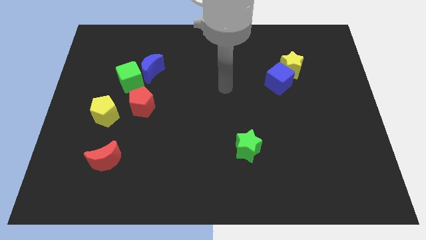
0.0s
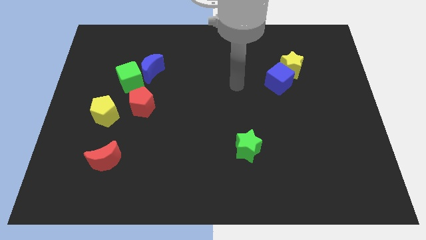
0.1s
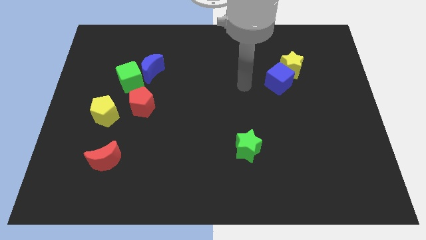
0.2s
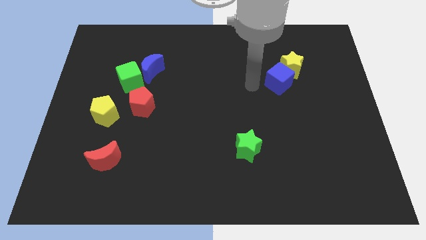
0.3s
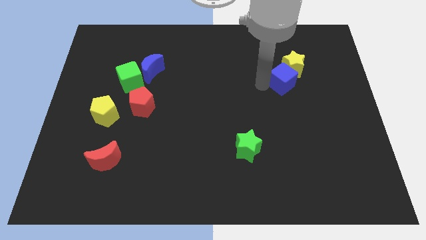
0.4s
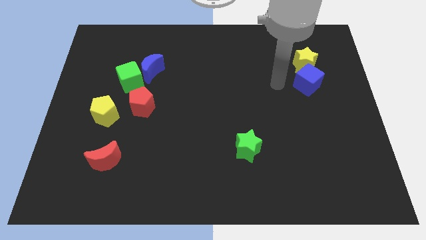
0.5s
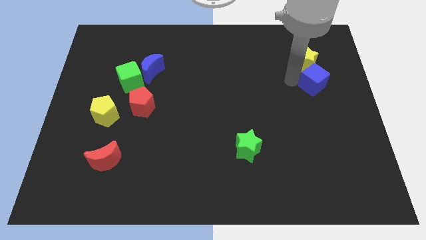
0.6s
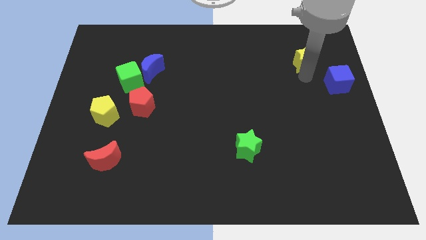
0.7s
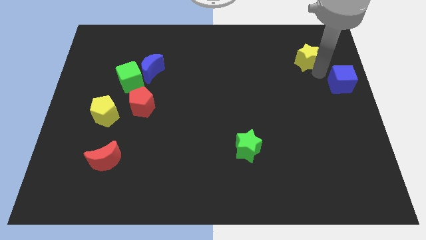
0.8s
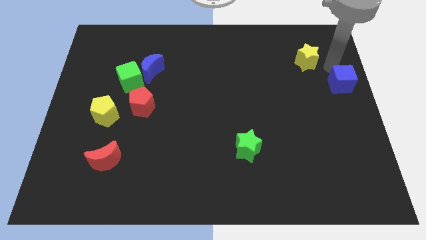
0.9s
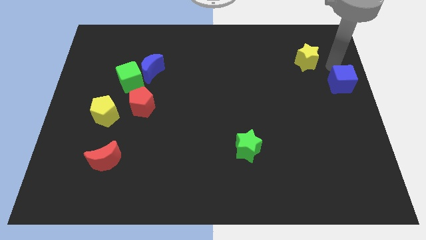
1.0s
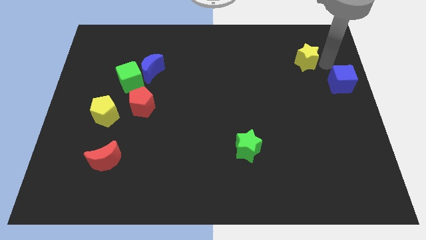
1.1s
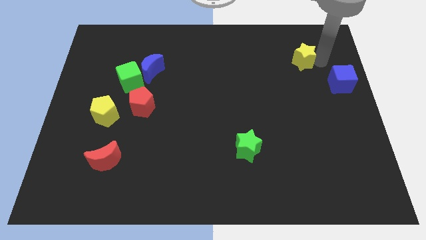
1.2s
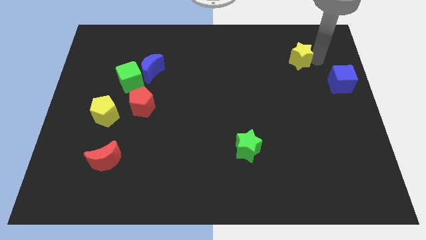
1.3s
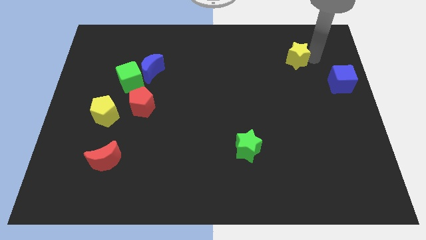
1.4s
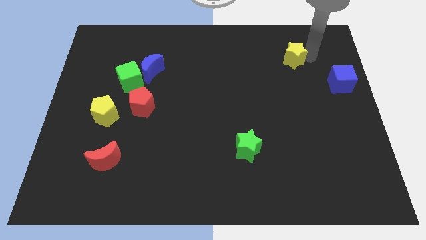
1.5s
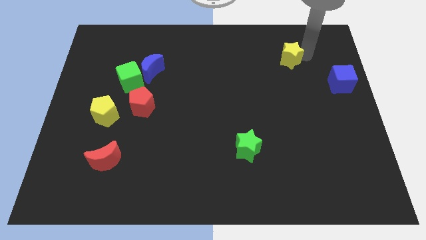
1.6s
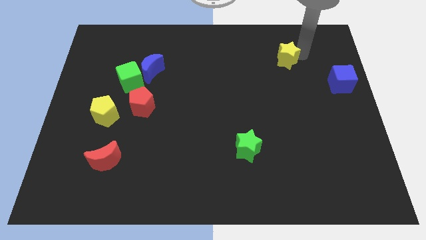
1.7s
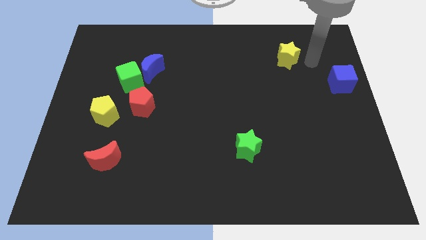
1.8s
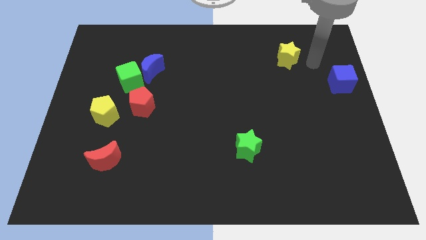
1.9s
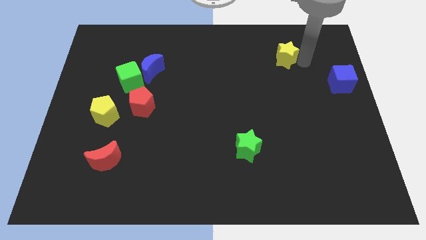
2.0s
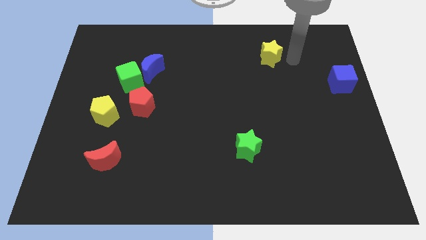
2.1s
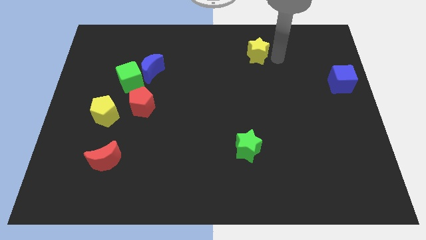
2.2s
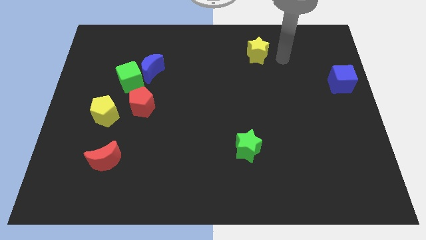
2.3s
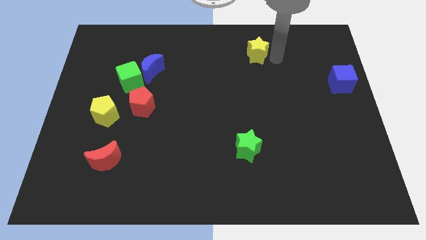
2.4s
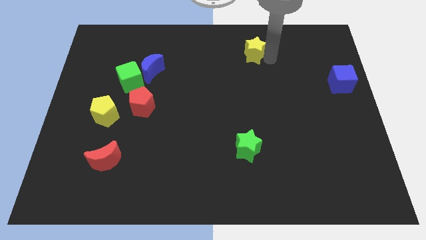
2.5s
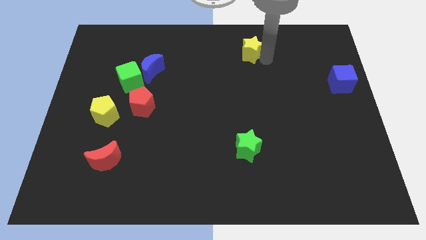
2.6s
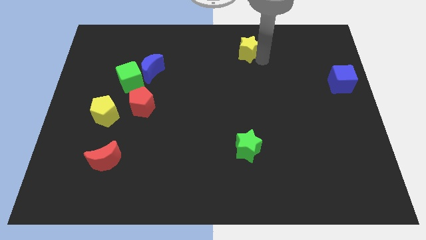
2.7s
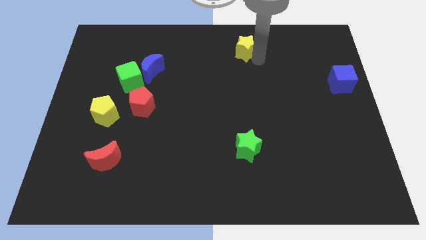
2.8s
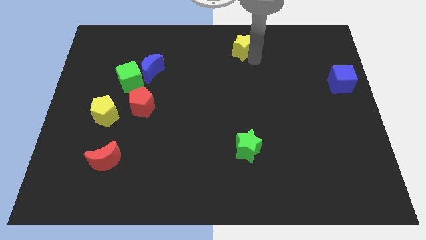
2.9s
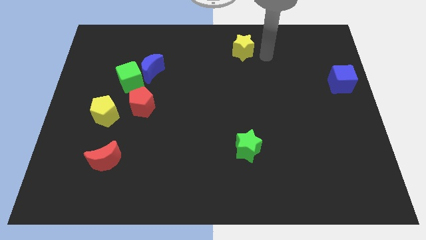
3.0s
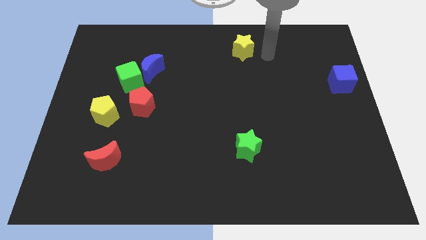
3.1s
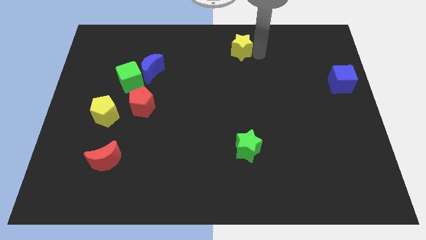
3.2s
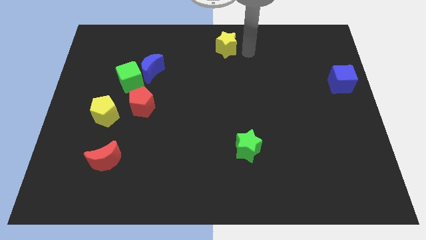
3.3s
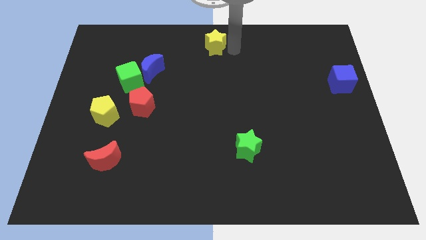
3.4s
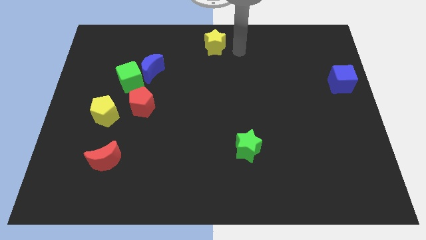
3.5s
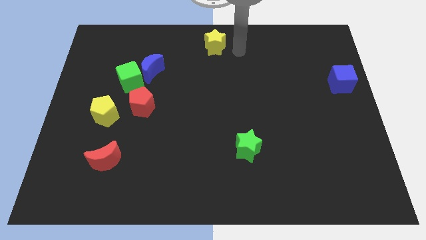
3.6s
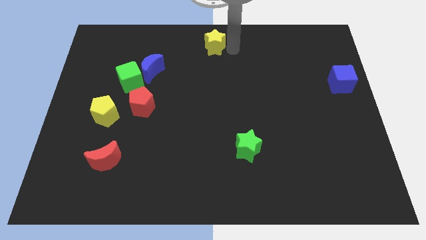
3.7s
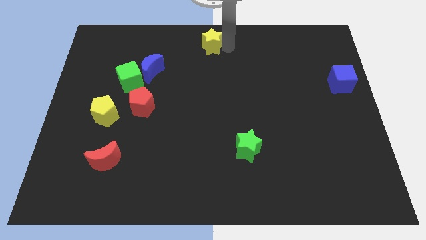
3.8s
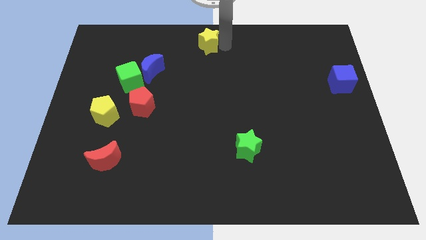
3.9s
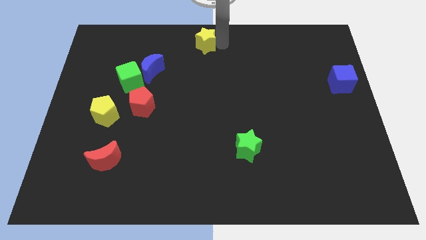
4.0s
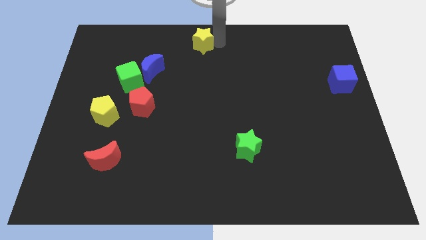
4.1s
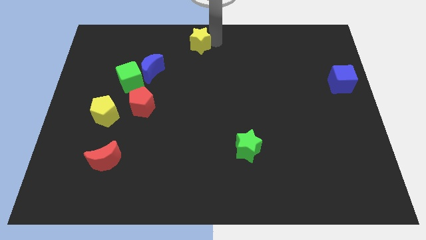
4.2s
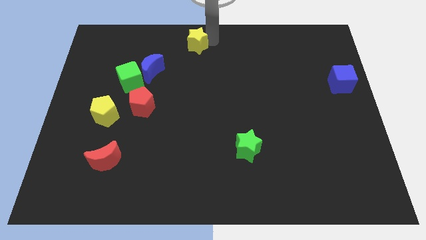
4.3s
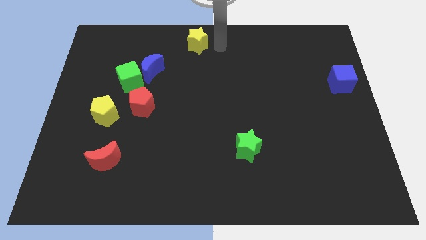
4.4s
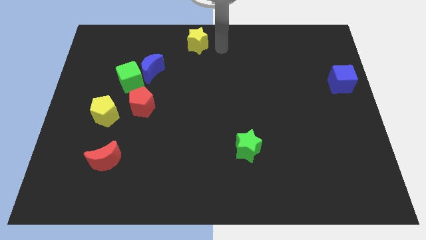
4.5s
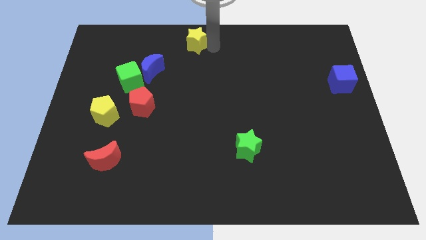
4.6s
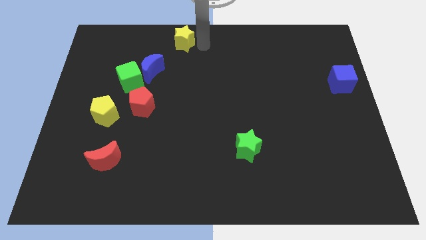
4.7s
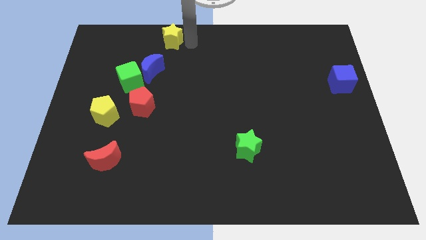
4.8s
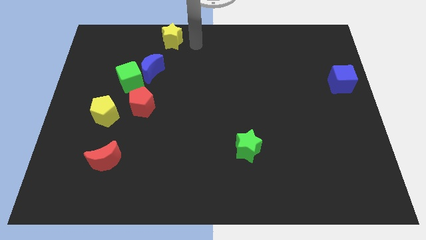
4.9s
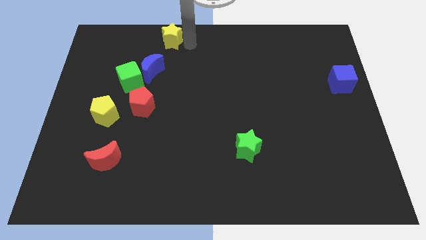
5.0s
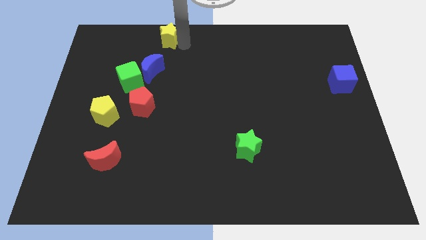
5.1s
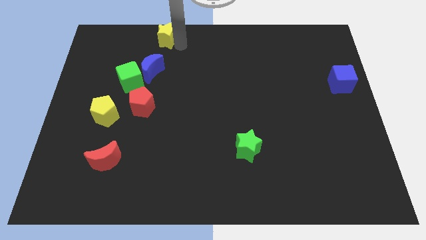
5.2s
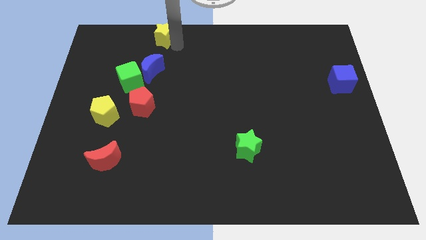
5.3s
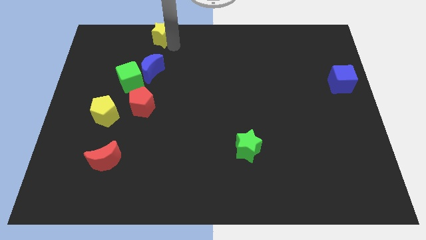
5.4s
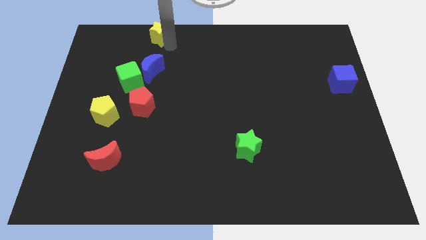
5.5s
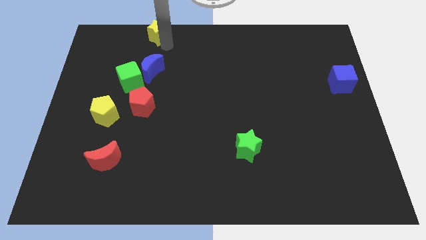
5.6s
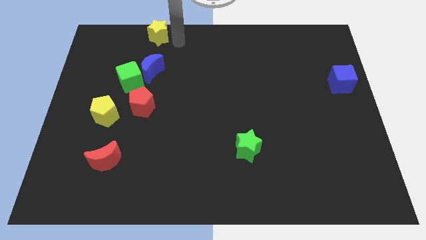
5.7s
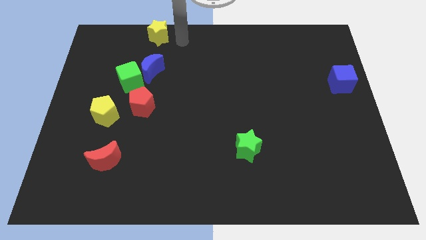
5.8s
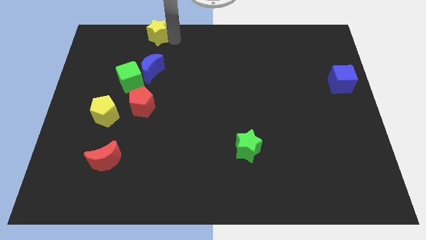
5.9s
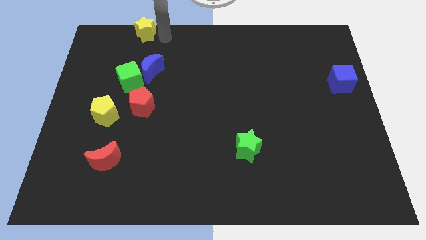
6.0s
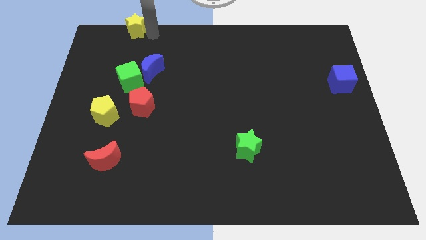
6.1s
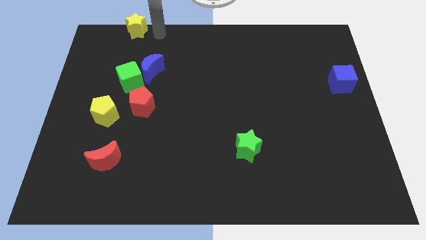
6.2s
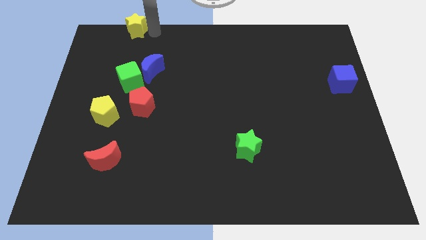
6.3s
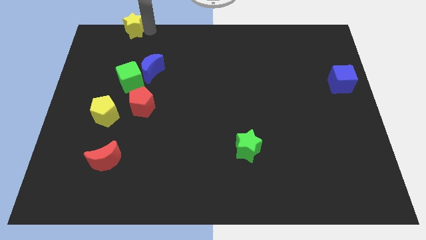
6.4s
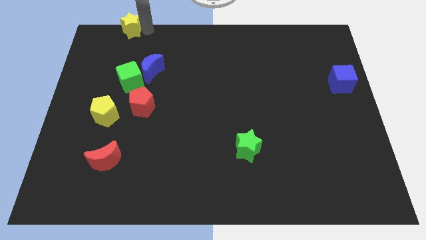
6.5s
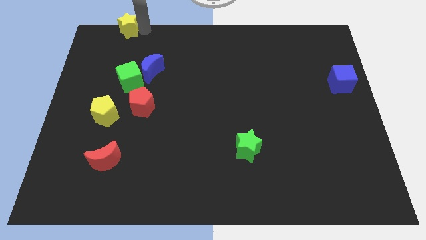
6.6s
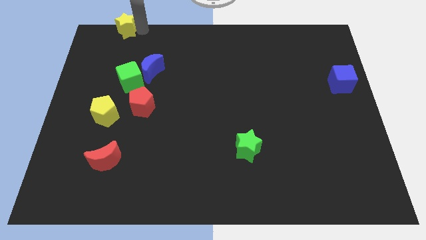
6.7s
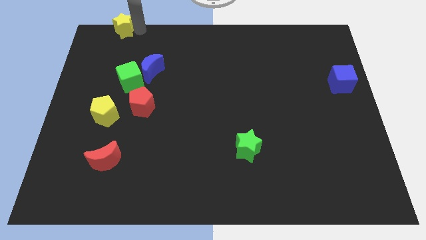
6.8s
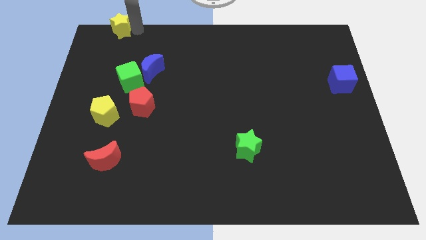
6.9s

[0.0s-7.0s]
move the yellow star to the top left of the board
